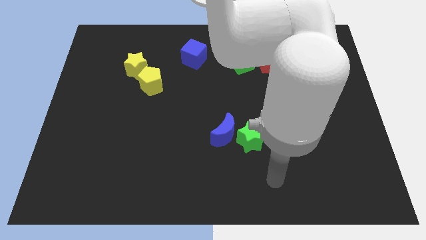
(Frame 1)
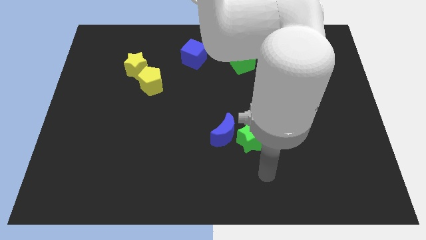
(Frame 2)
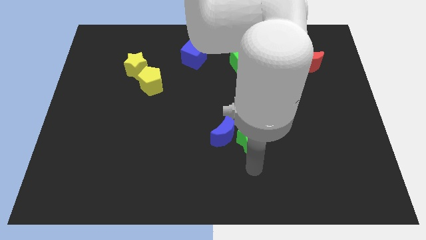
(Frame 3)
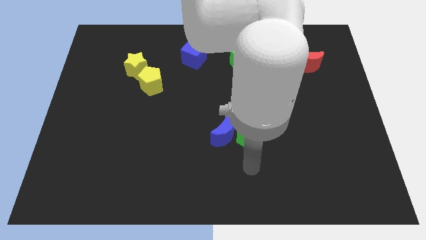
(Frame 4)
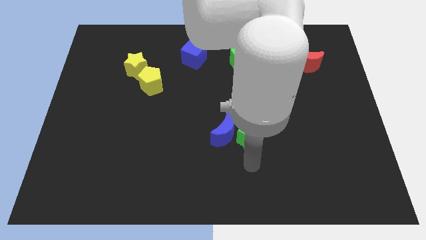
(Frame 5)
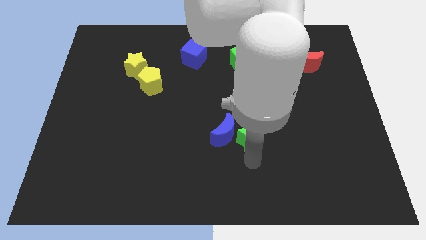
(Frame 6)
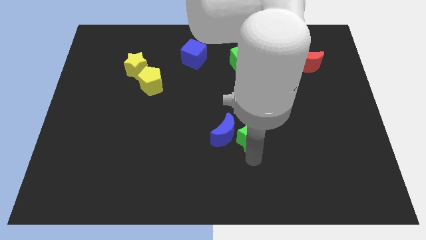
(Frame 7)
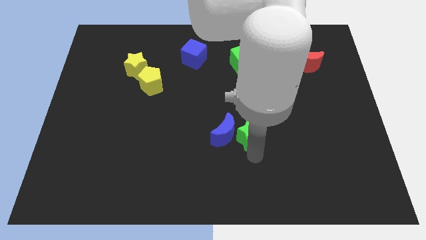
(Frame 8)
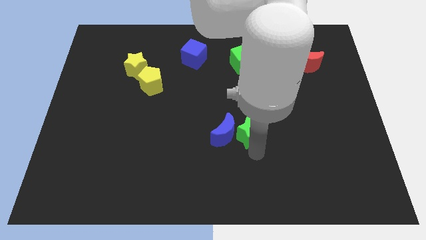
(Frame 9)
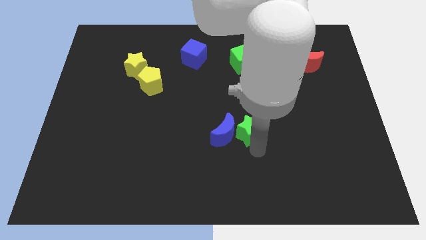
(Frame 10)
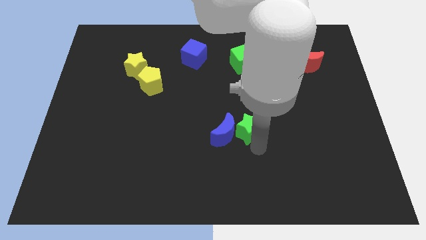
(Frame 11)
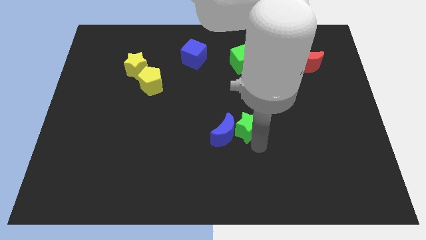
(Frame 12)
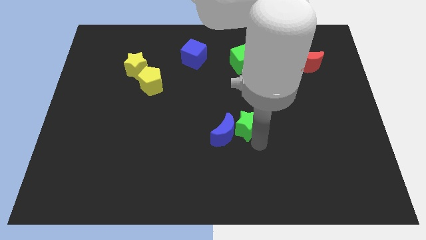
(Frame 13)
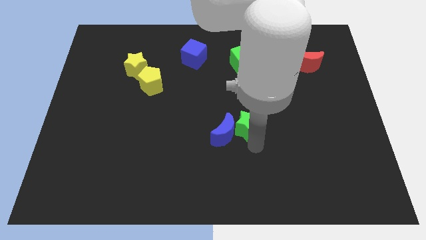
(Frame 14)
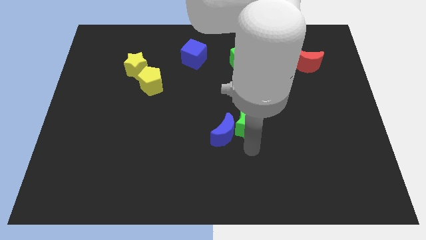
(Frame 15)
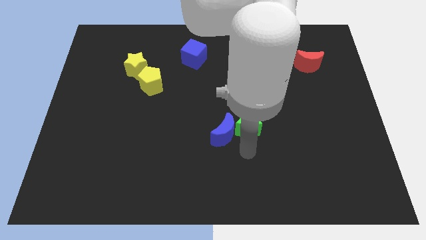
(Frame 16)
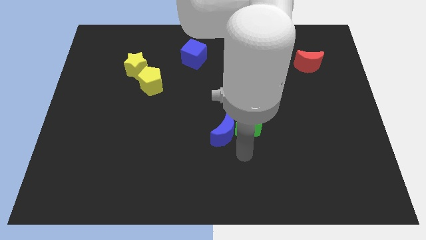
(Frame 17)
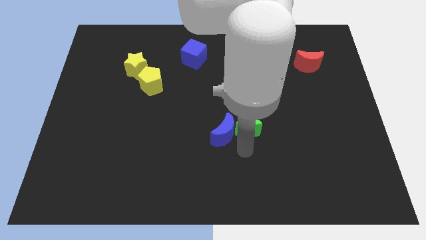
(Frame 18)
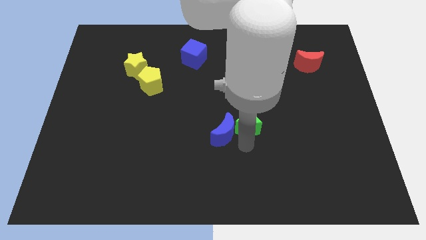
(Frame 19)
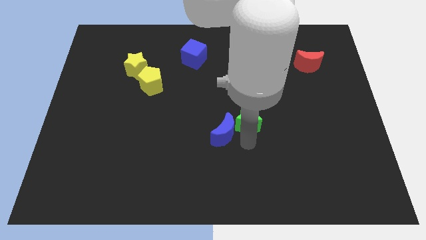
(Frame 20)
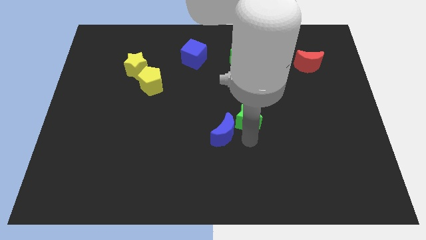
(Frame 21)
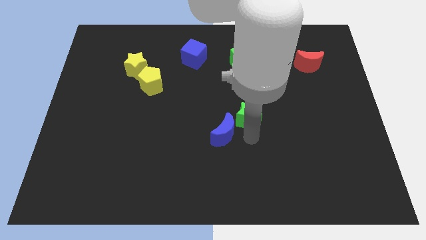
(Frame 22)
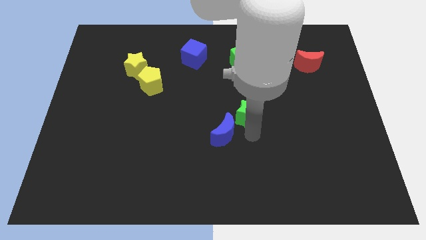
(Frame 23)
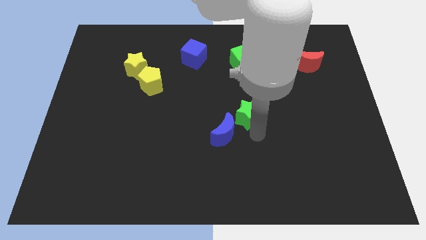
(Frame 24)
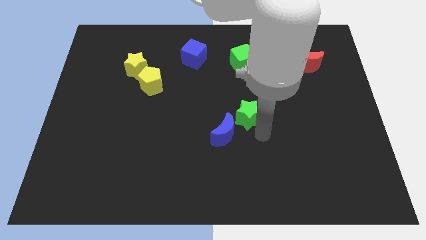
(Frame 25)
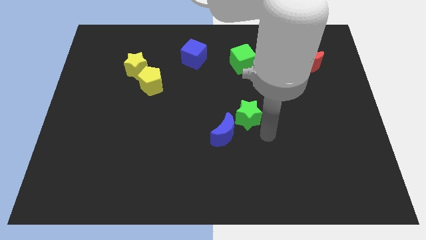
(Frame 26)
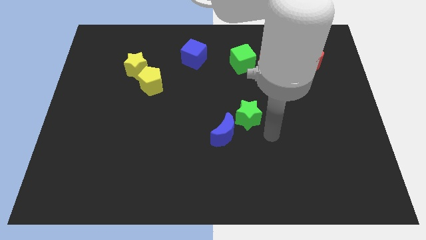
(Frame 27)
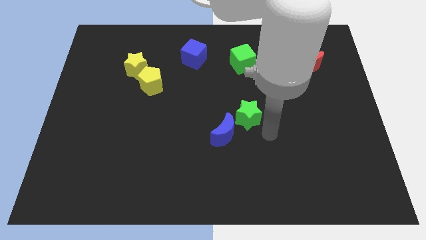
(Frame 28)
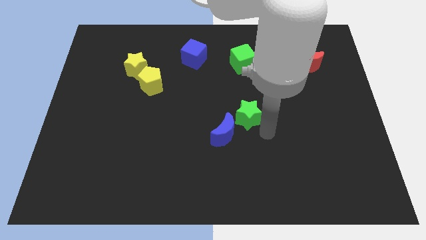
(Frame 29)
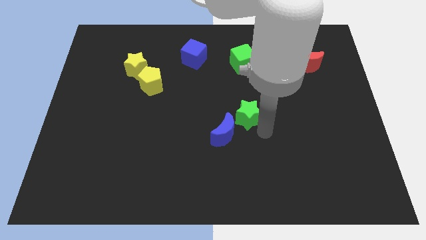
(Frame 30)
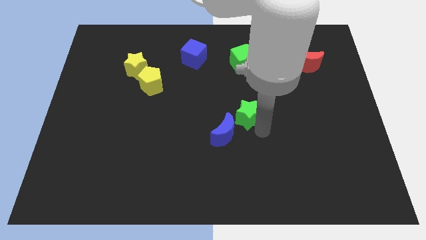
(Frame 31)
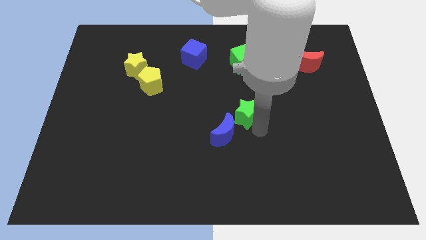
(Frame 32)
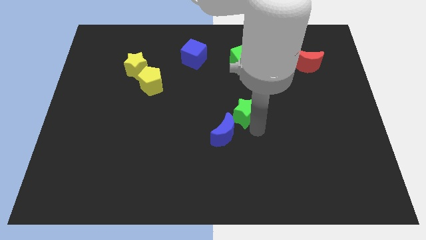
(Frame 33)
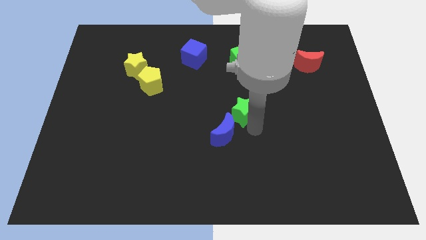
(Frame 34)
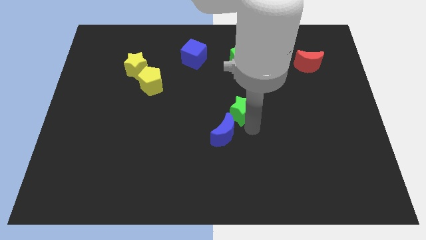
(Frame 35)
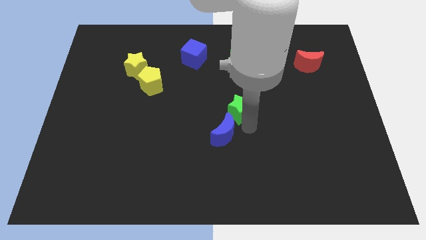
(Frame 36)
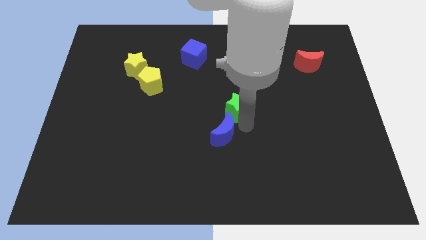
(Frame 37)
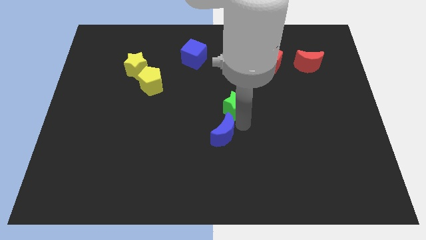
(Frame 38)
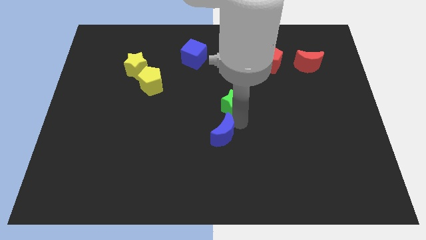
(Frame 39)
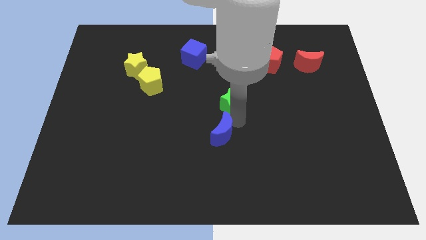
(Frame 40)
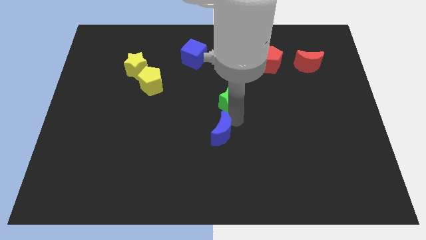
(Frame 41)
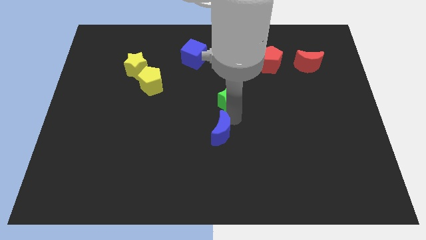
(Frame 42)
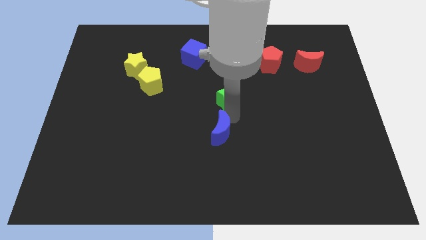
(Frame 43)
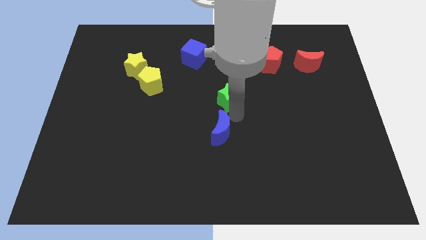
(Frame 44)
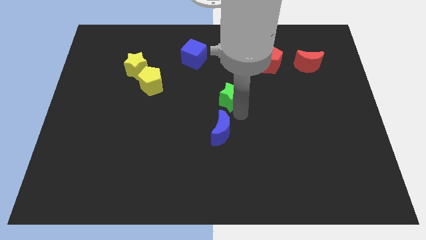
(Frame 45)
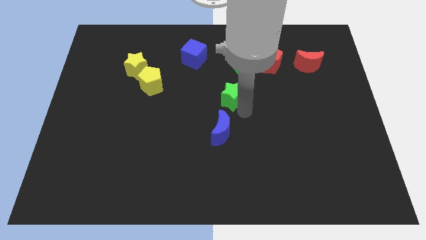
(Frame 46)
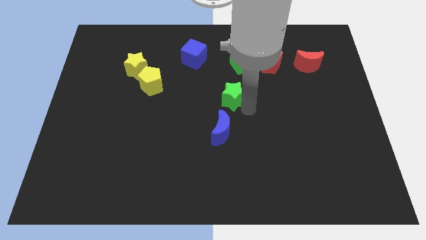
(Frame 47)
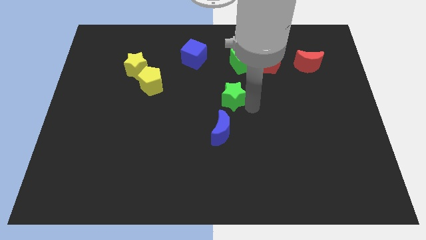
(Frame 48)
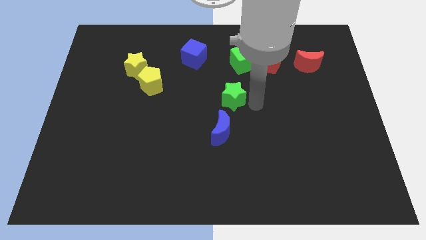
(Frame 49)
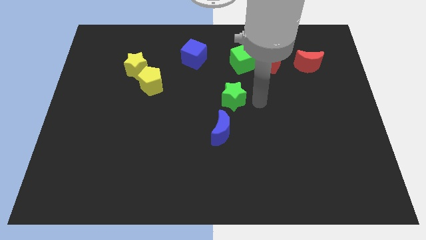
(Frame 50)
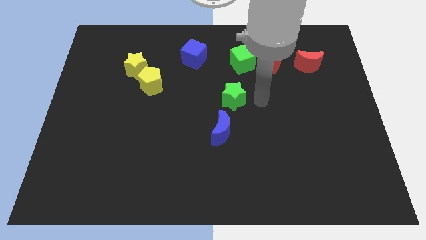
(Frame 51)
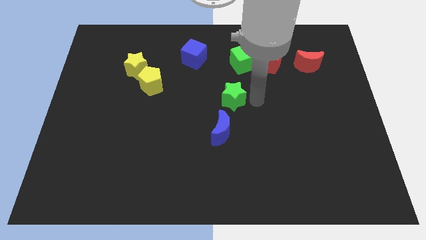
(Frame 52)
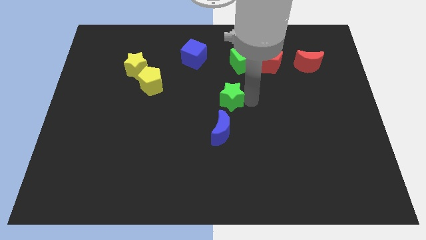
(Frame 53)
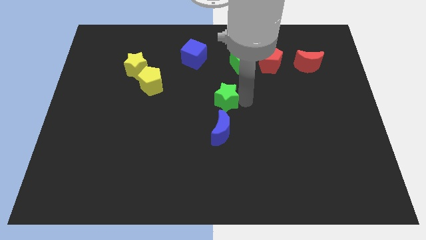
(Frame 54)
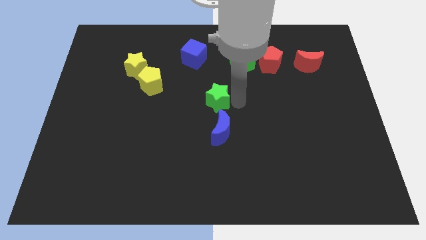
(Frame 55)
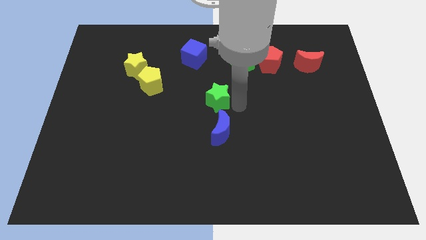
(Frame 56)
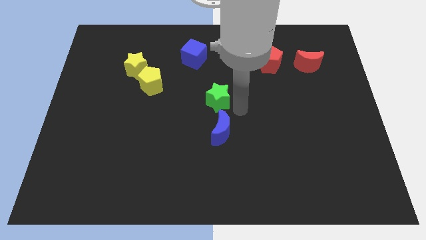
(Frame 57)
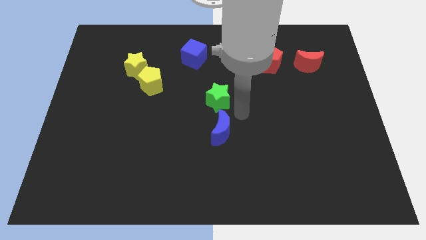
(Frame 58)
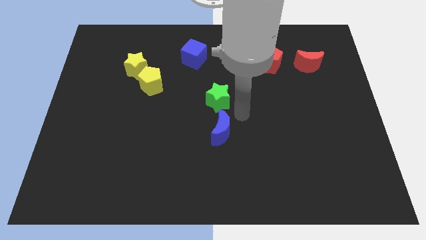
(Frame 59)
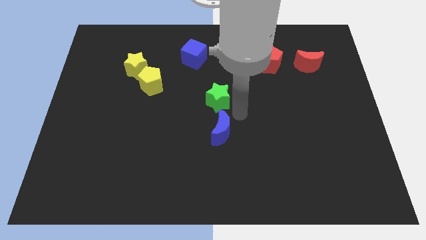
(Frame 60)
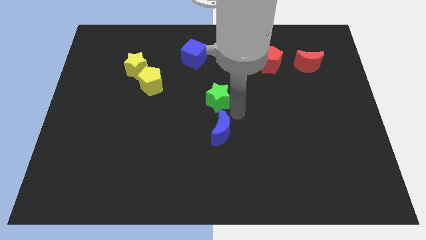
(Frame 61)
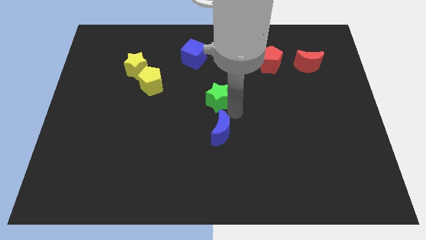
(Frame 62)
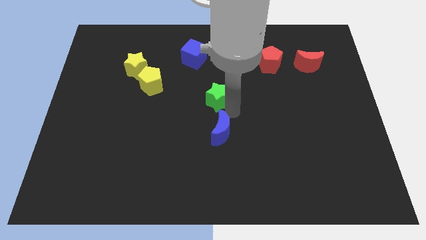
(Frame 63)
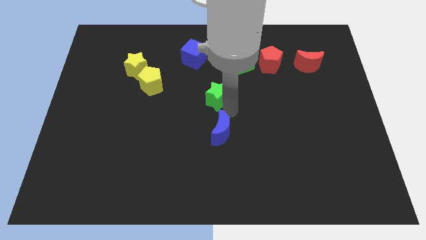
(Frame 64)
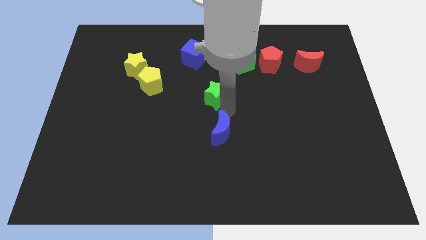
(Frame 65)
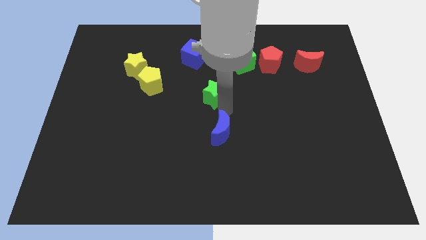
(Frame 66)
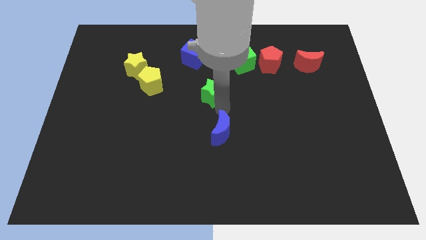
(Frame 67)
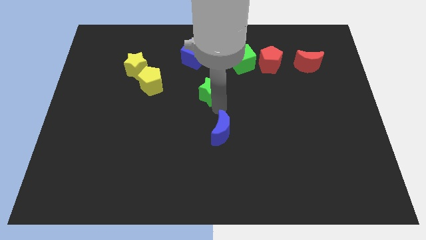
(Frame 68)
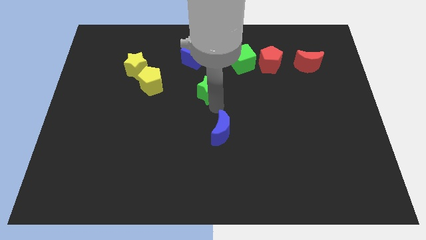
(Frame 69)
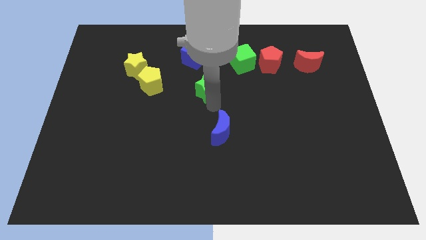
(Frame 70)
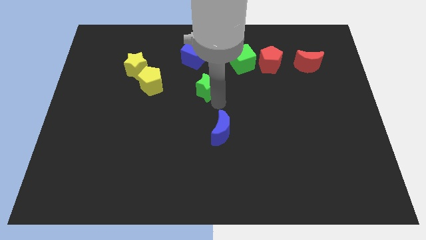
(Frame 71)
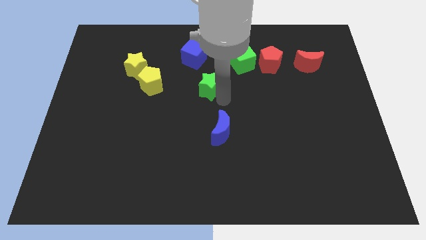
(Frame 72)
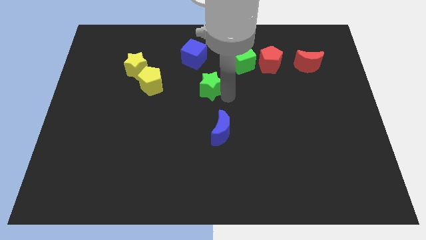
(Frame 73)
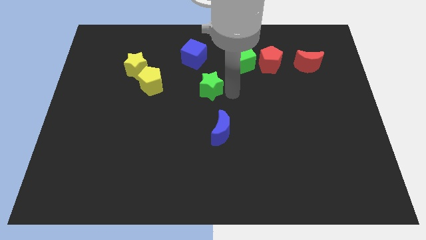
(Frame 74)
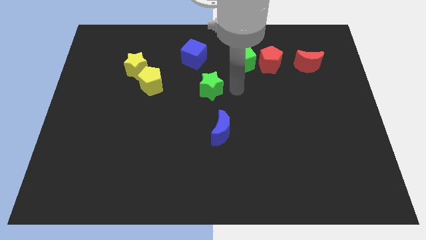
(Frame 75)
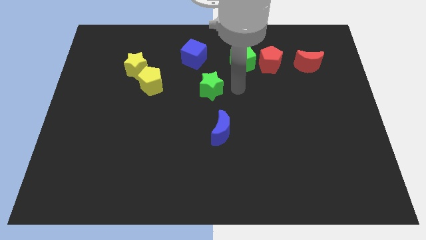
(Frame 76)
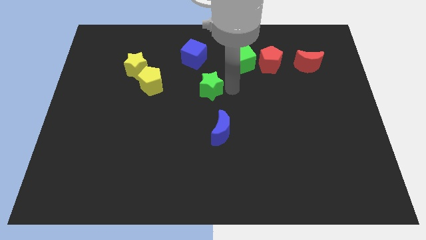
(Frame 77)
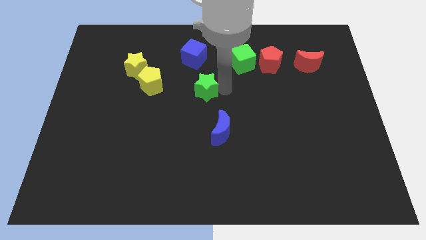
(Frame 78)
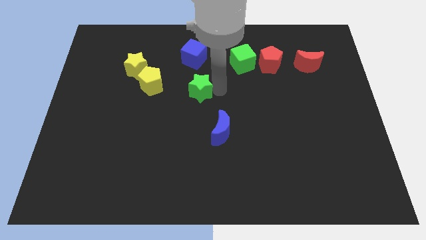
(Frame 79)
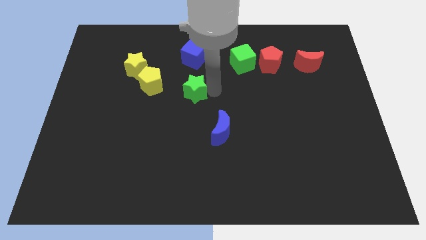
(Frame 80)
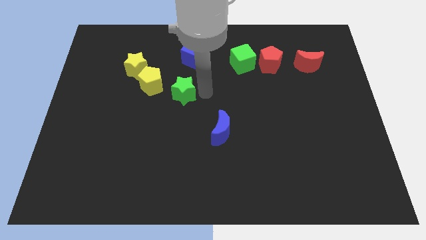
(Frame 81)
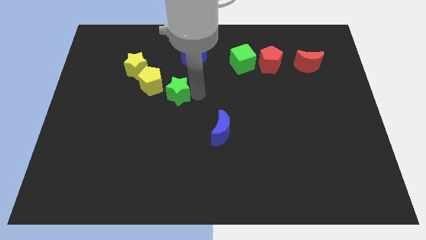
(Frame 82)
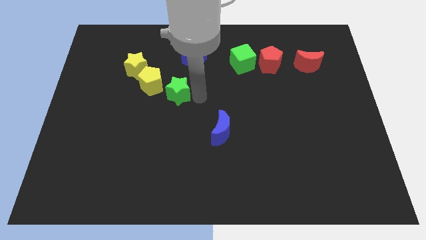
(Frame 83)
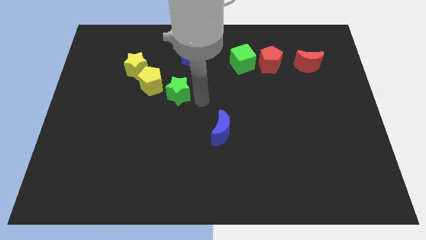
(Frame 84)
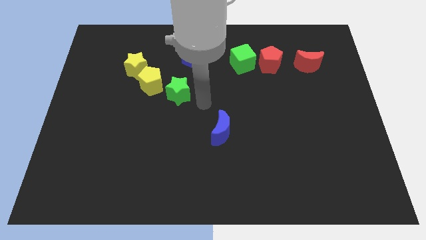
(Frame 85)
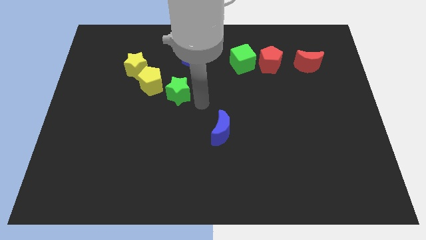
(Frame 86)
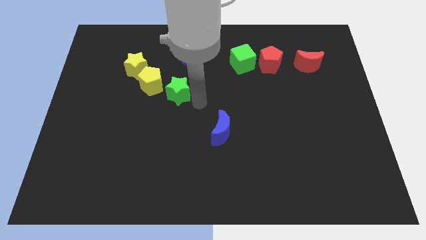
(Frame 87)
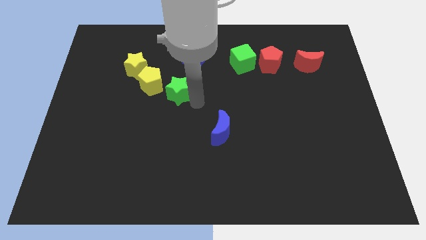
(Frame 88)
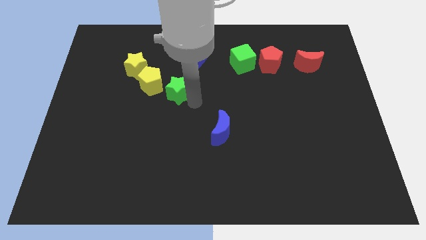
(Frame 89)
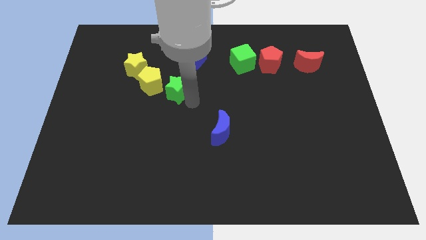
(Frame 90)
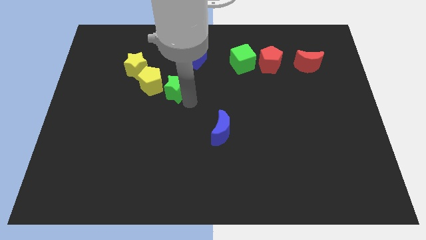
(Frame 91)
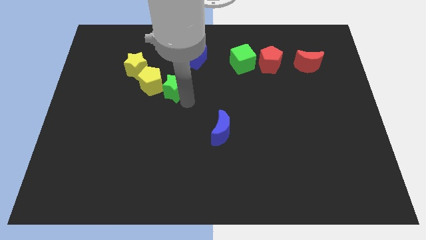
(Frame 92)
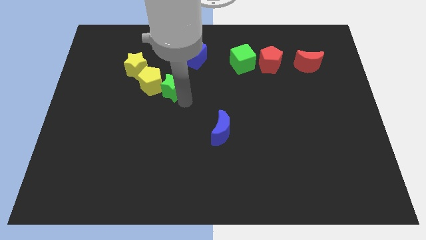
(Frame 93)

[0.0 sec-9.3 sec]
slide the green star next to the yellow pentagon
